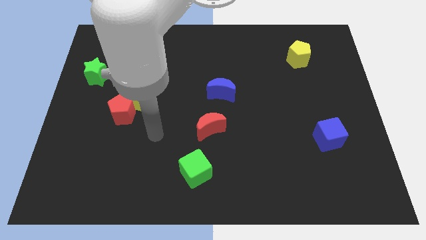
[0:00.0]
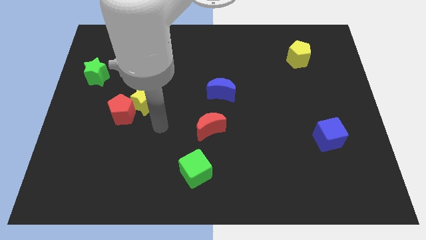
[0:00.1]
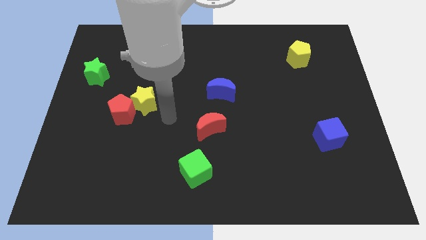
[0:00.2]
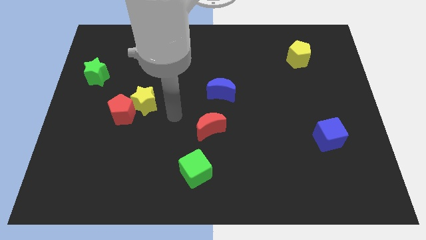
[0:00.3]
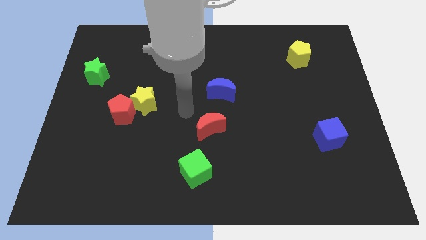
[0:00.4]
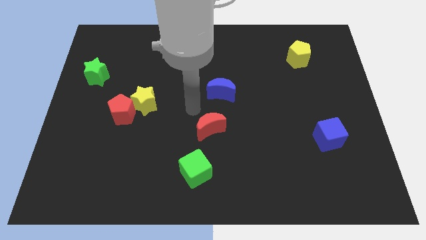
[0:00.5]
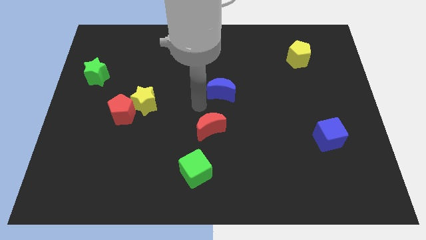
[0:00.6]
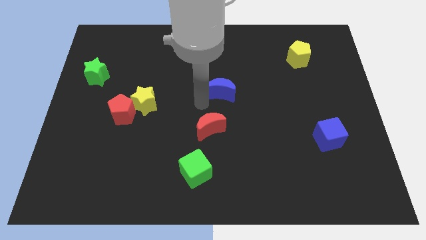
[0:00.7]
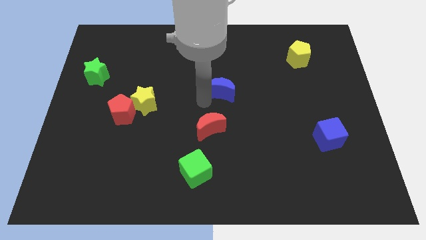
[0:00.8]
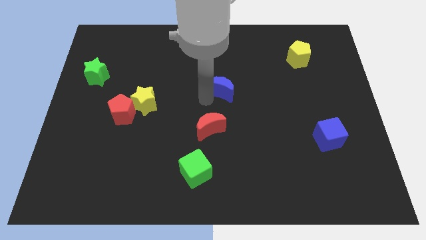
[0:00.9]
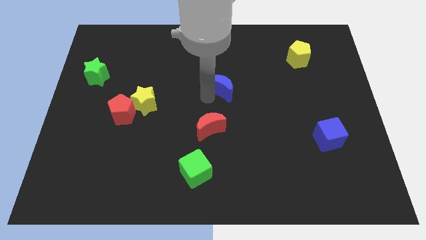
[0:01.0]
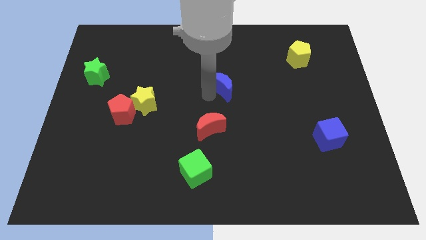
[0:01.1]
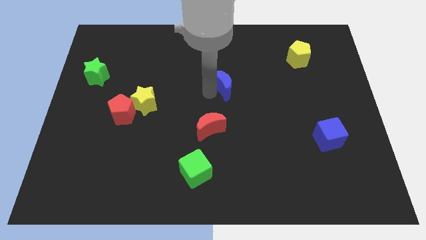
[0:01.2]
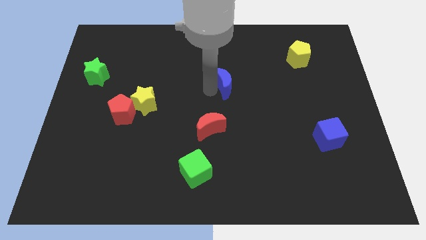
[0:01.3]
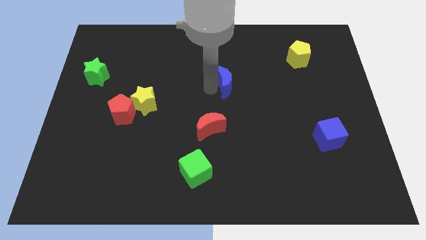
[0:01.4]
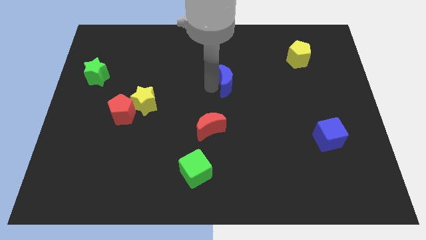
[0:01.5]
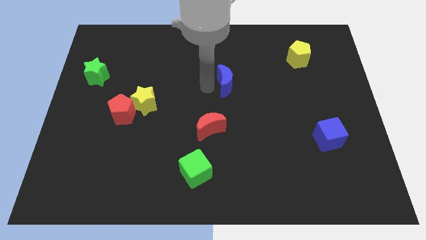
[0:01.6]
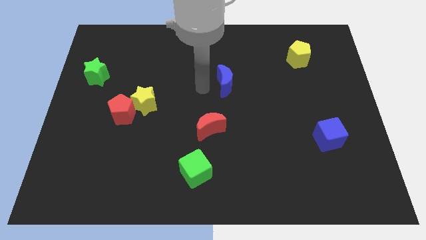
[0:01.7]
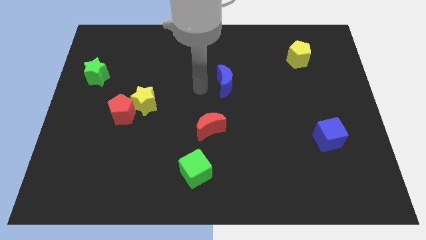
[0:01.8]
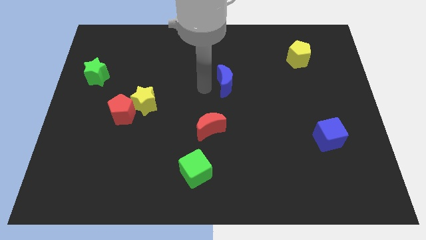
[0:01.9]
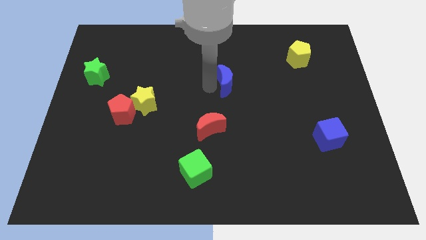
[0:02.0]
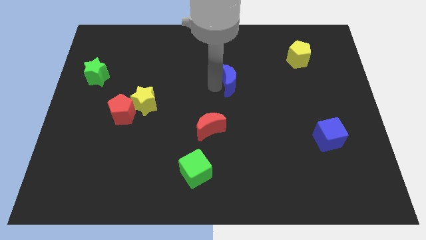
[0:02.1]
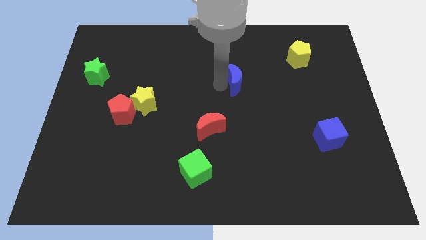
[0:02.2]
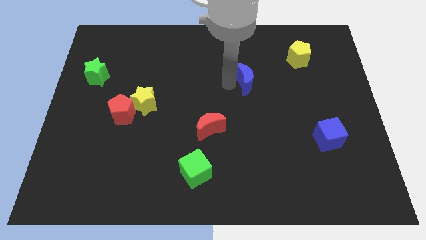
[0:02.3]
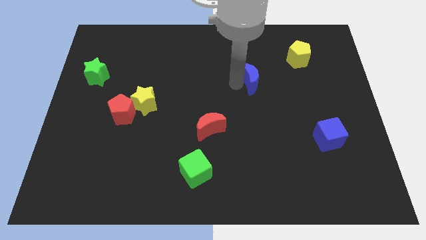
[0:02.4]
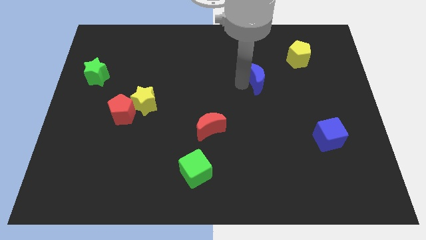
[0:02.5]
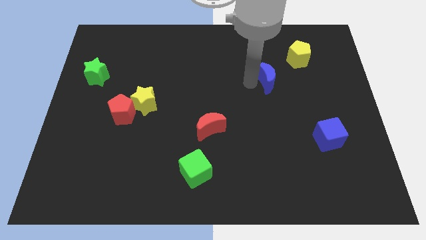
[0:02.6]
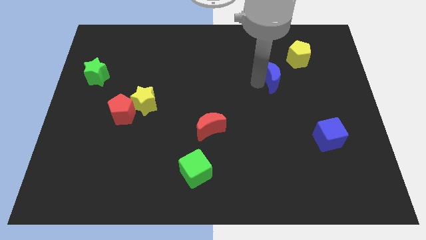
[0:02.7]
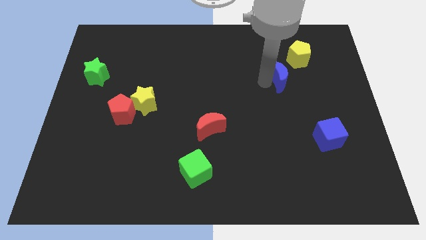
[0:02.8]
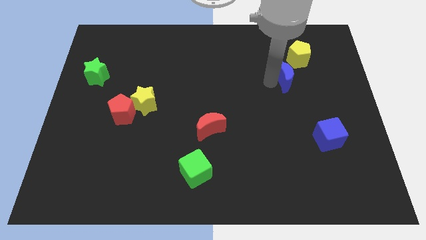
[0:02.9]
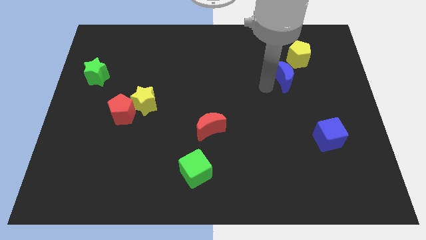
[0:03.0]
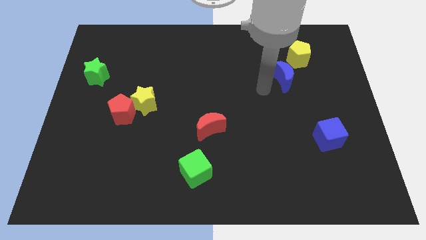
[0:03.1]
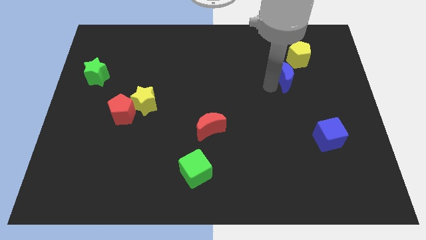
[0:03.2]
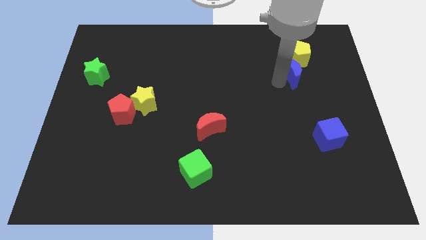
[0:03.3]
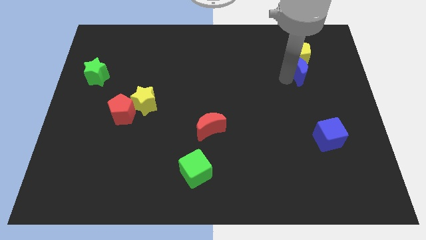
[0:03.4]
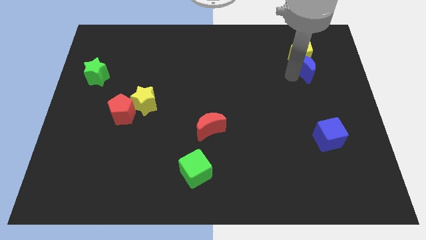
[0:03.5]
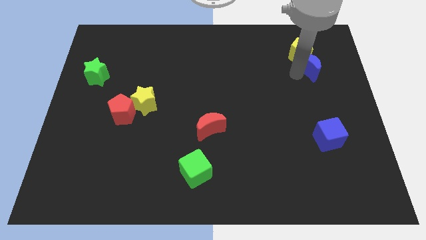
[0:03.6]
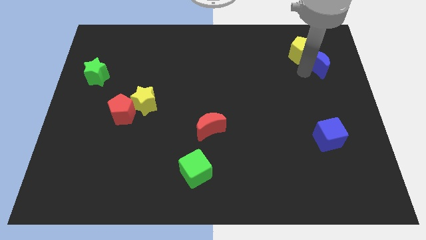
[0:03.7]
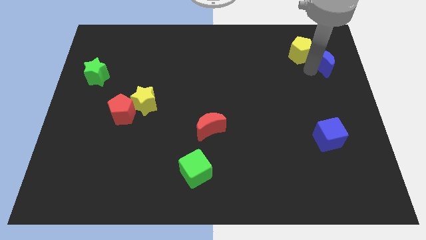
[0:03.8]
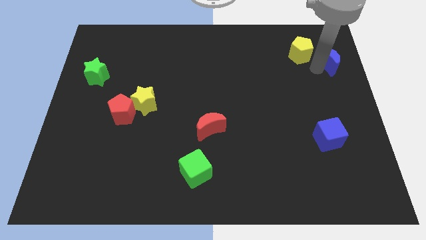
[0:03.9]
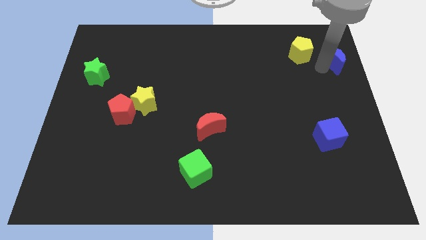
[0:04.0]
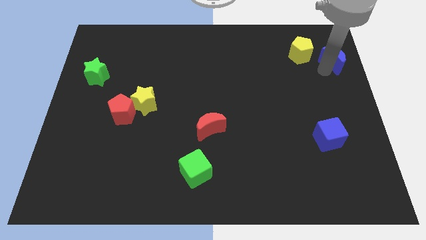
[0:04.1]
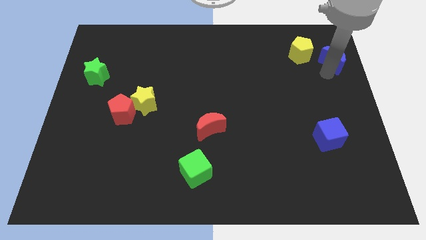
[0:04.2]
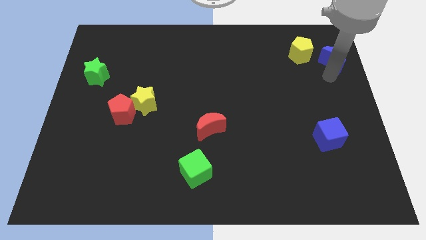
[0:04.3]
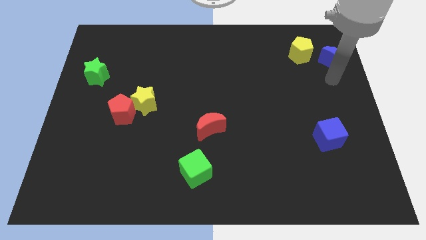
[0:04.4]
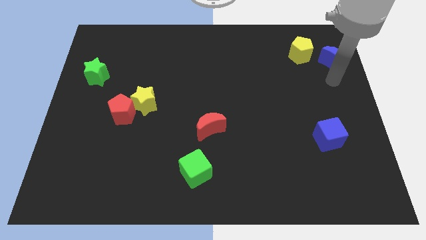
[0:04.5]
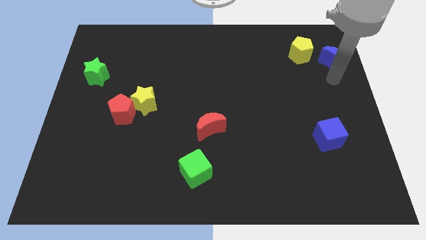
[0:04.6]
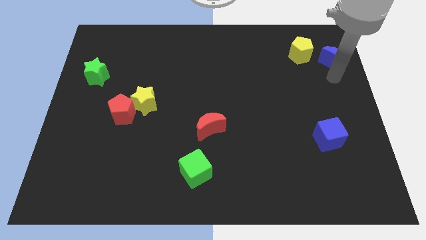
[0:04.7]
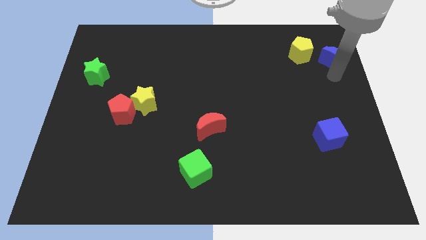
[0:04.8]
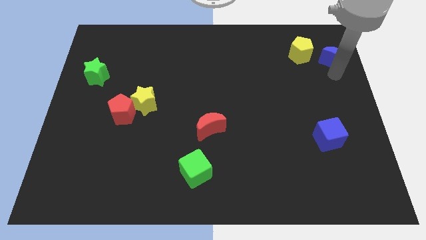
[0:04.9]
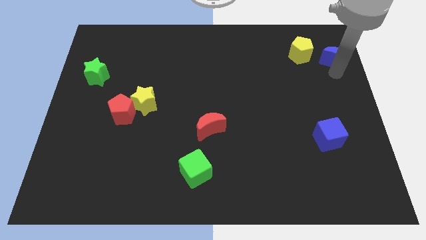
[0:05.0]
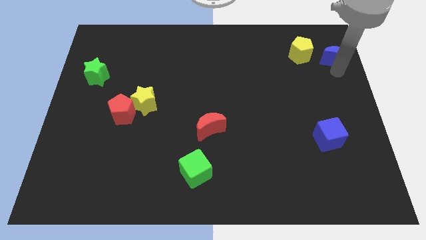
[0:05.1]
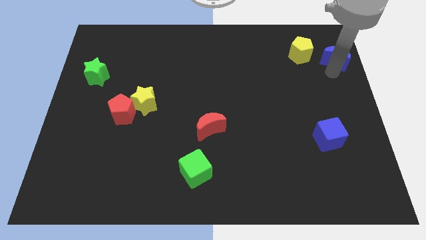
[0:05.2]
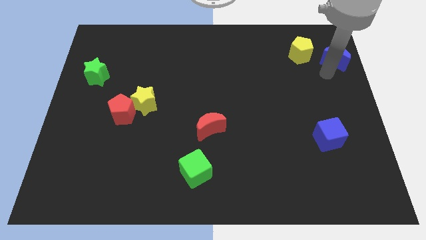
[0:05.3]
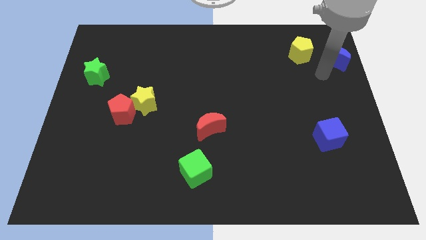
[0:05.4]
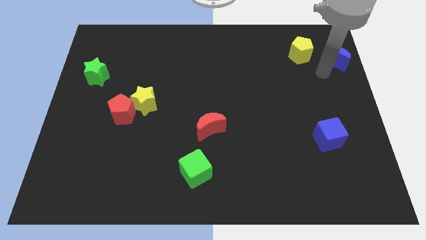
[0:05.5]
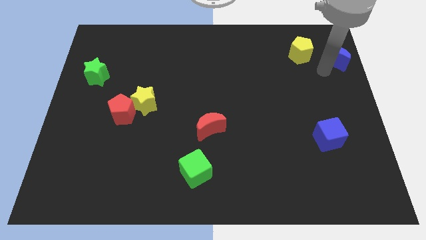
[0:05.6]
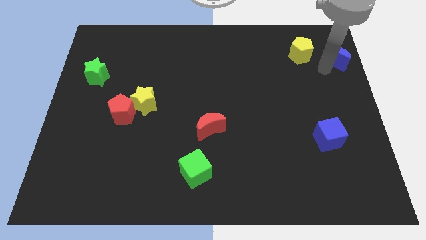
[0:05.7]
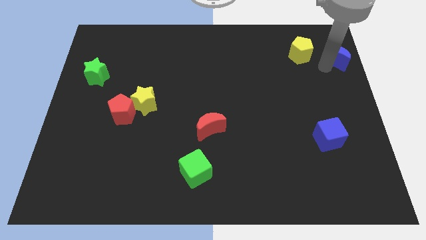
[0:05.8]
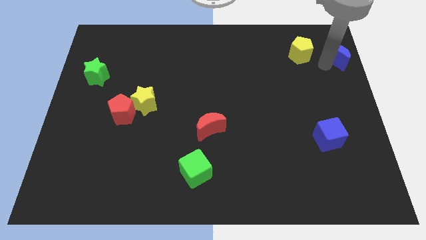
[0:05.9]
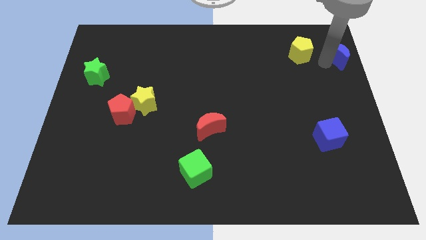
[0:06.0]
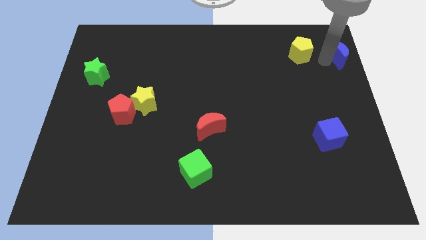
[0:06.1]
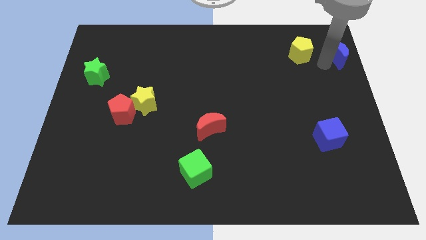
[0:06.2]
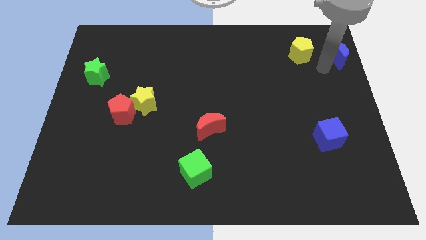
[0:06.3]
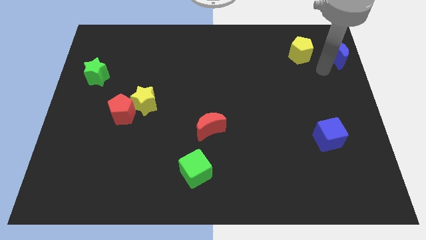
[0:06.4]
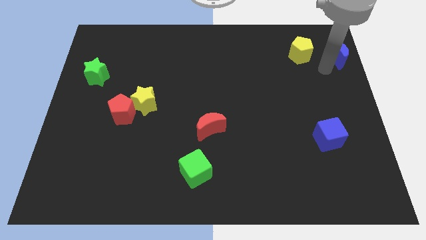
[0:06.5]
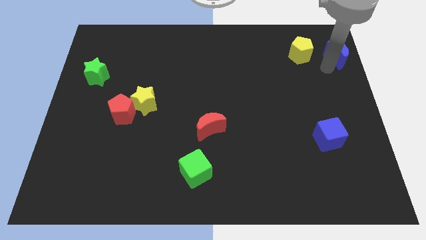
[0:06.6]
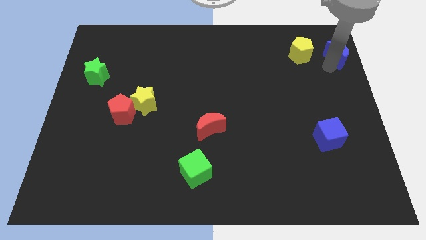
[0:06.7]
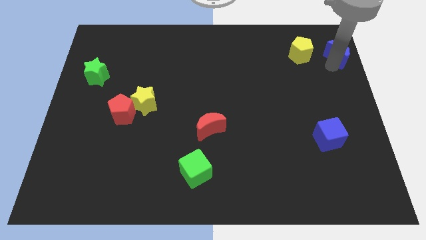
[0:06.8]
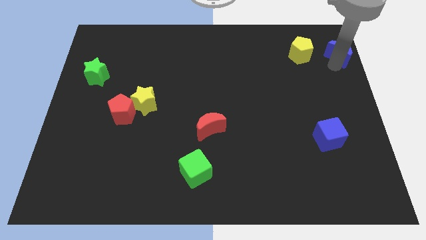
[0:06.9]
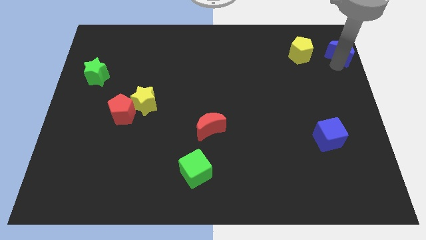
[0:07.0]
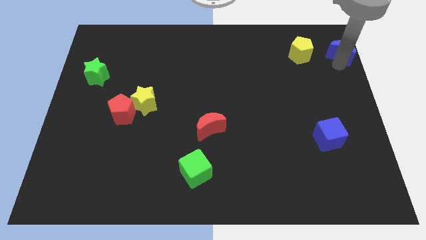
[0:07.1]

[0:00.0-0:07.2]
put the blue moon to the upper right corner
